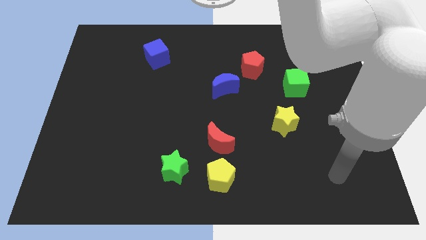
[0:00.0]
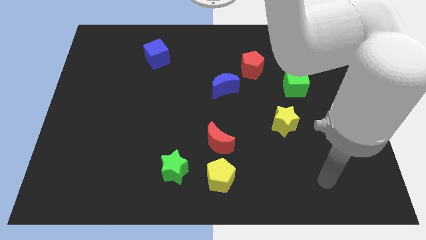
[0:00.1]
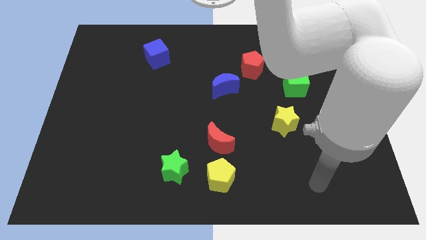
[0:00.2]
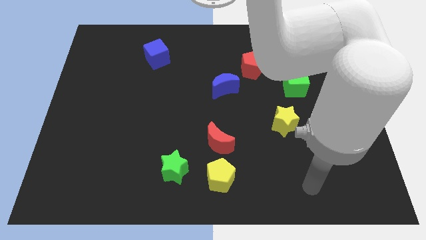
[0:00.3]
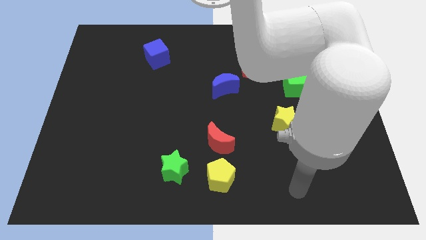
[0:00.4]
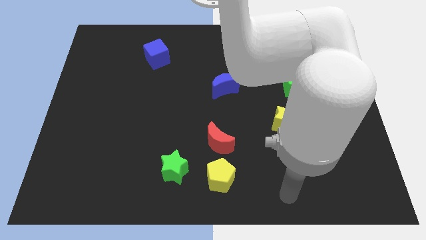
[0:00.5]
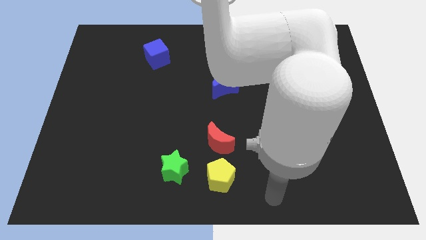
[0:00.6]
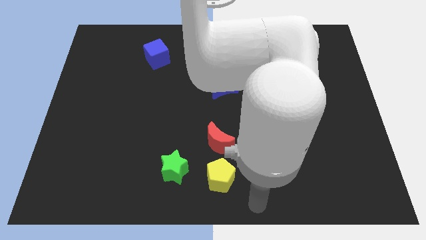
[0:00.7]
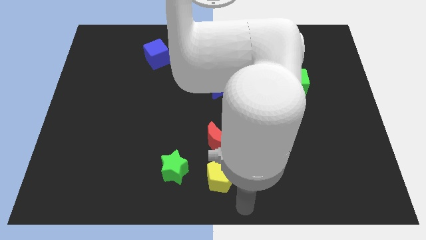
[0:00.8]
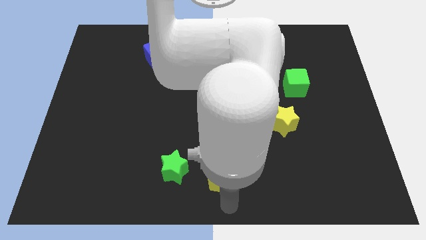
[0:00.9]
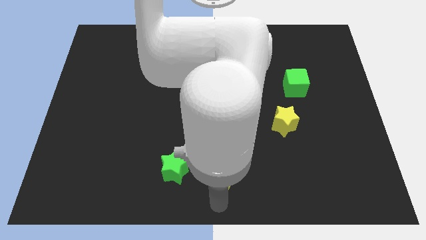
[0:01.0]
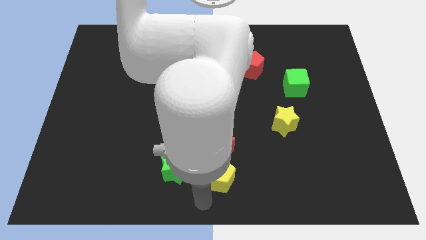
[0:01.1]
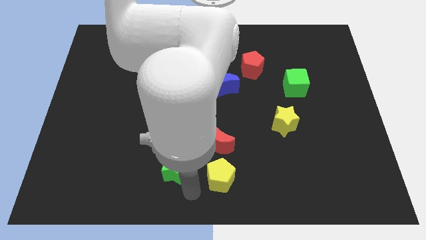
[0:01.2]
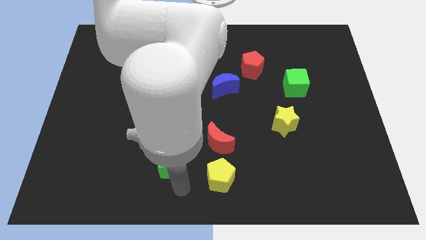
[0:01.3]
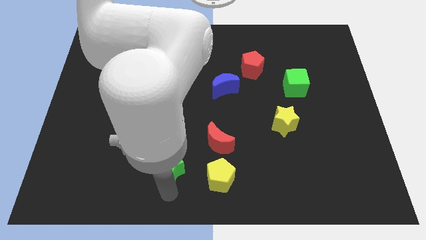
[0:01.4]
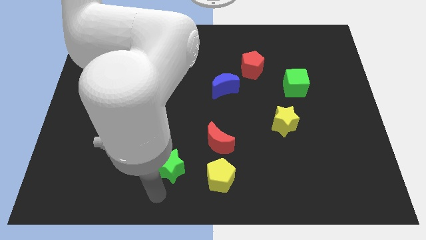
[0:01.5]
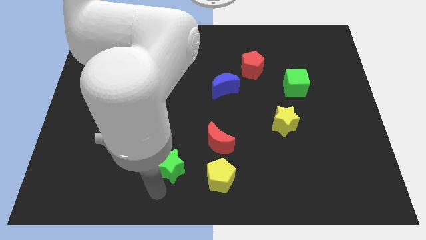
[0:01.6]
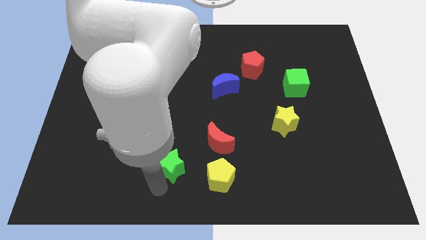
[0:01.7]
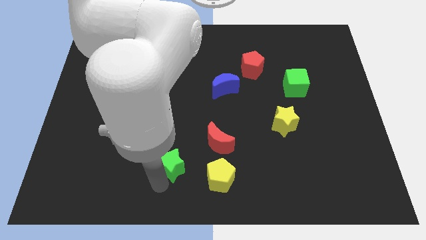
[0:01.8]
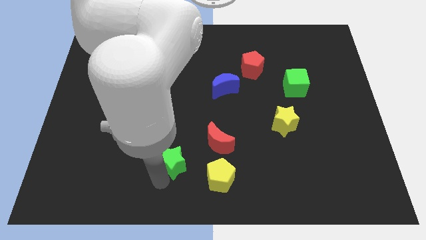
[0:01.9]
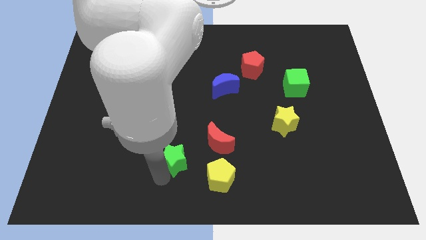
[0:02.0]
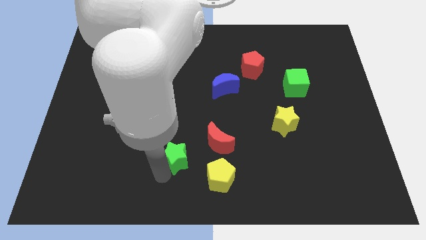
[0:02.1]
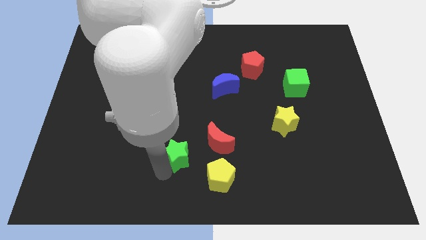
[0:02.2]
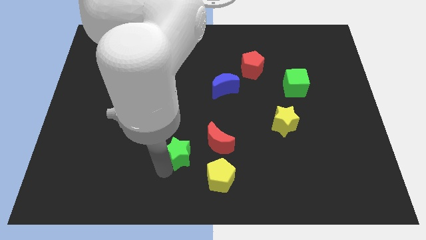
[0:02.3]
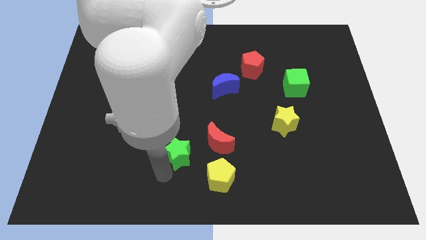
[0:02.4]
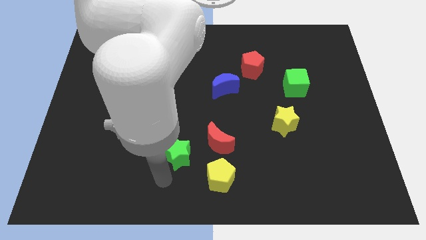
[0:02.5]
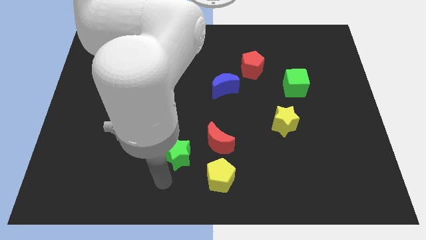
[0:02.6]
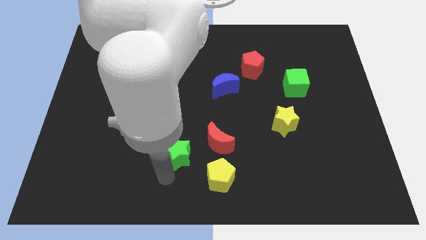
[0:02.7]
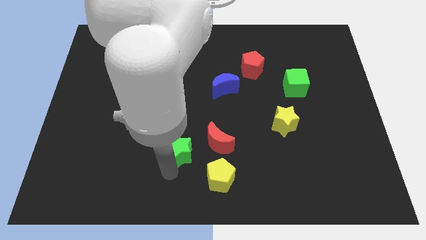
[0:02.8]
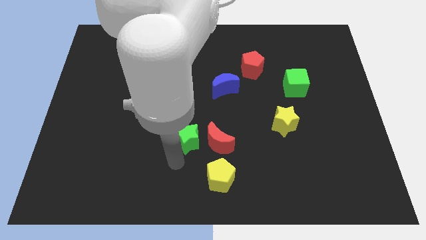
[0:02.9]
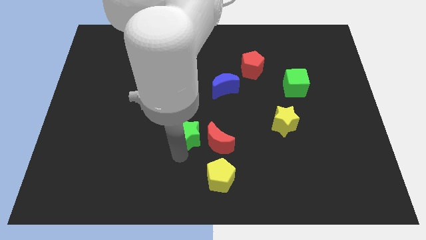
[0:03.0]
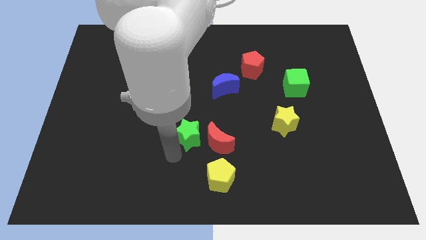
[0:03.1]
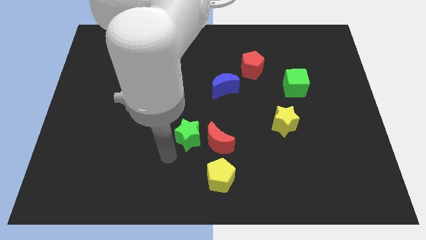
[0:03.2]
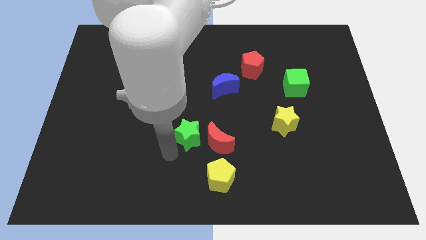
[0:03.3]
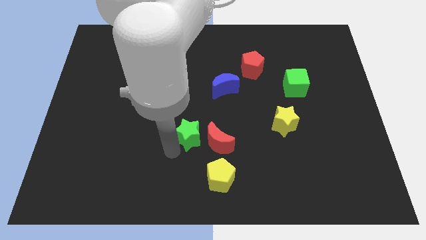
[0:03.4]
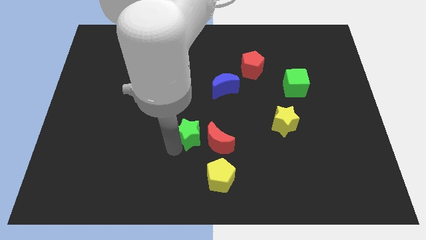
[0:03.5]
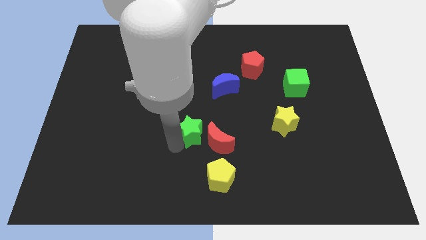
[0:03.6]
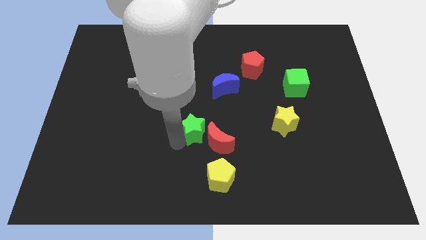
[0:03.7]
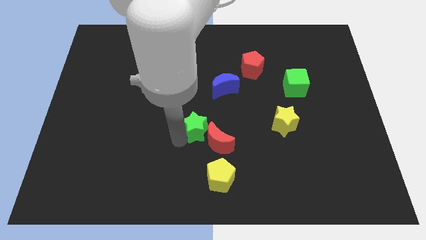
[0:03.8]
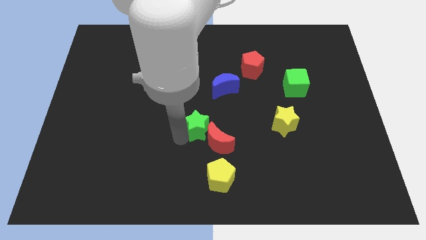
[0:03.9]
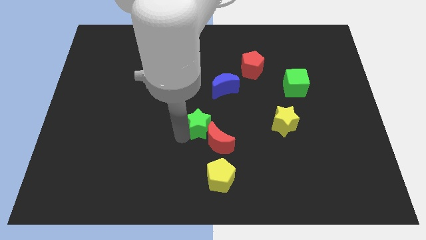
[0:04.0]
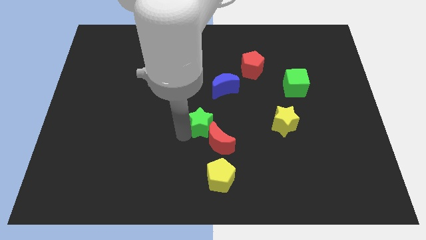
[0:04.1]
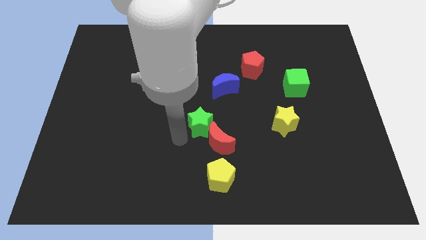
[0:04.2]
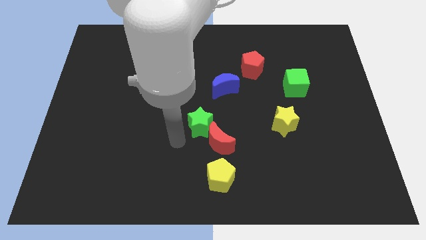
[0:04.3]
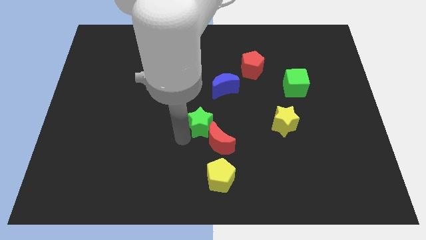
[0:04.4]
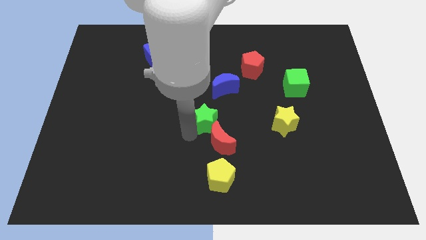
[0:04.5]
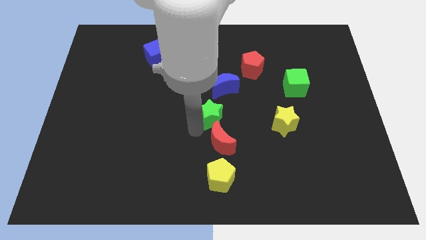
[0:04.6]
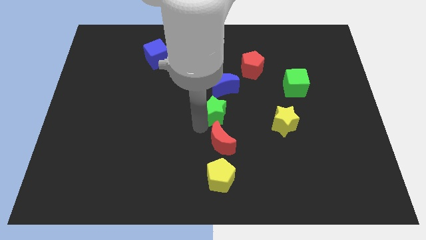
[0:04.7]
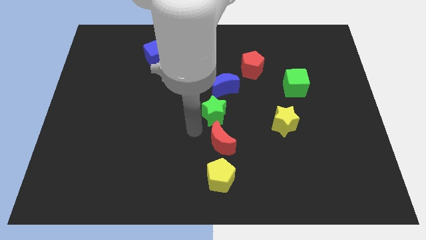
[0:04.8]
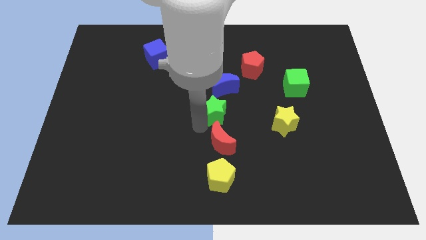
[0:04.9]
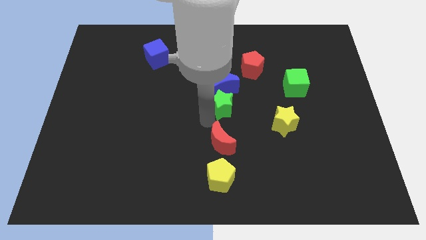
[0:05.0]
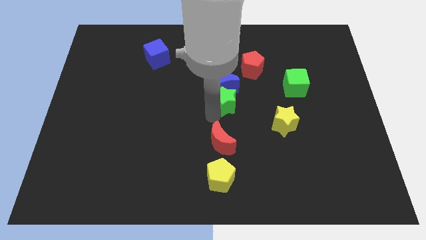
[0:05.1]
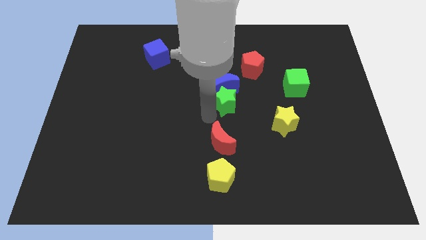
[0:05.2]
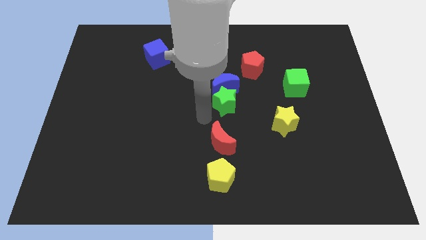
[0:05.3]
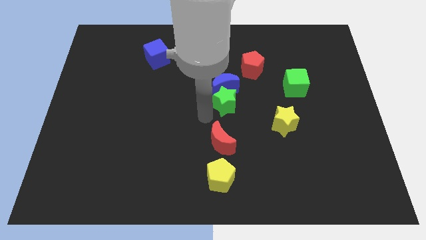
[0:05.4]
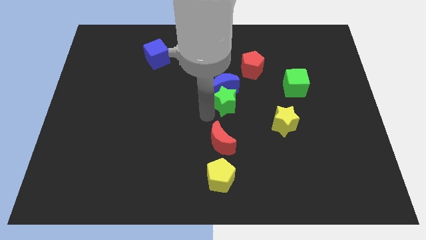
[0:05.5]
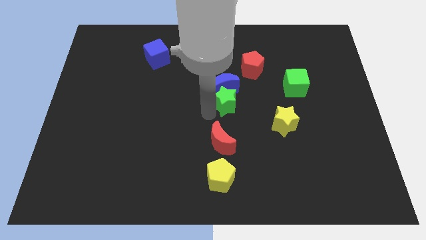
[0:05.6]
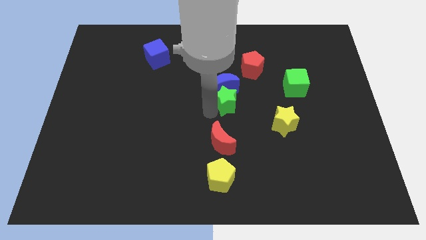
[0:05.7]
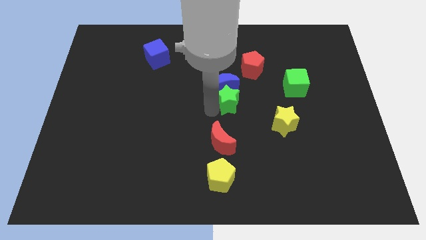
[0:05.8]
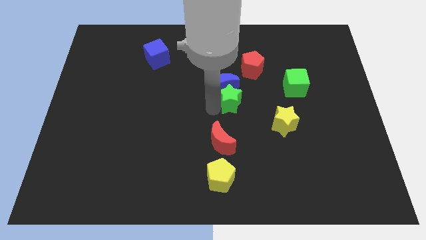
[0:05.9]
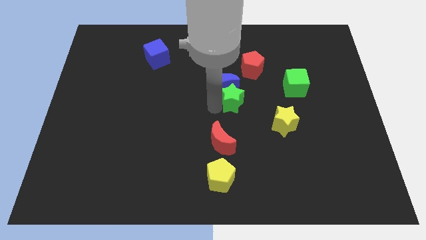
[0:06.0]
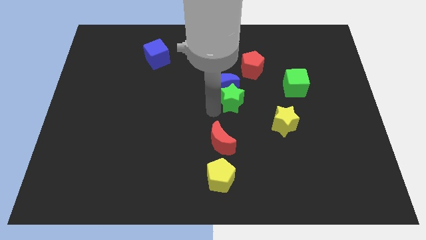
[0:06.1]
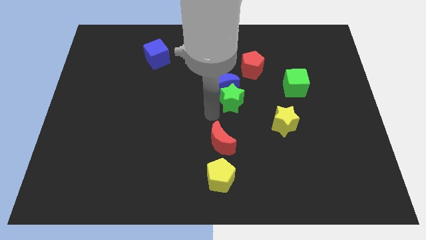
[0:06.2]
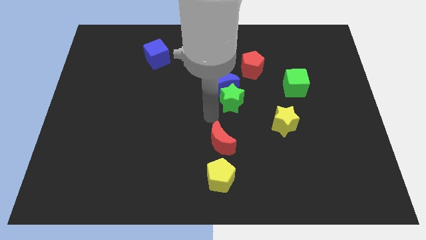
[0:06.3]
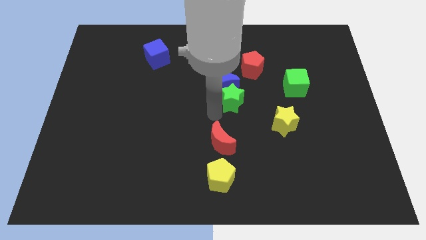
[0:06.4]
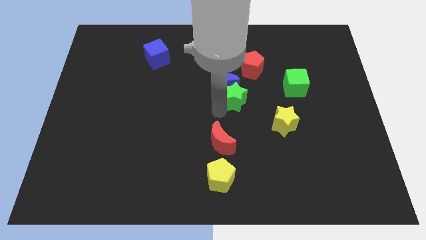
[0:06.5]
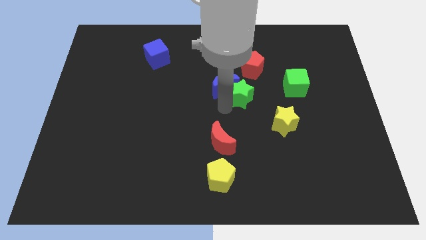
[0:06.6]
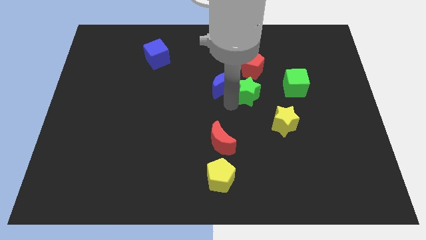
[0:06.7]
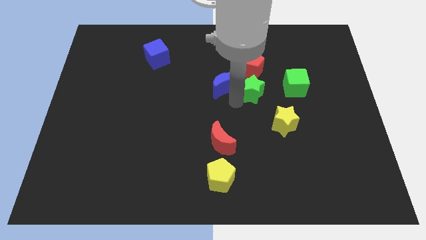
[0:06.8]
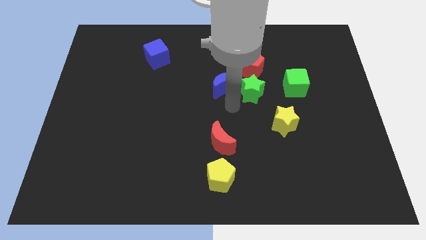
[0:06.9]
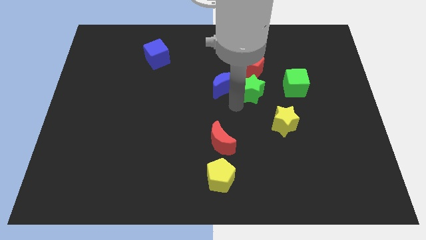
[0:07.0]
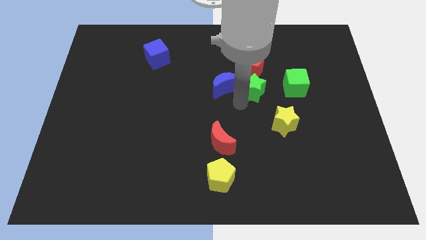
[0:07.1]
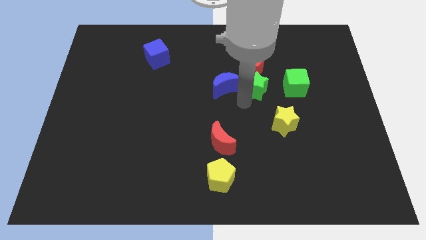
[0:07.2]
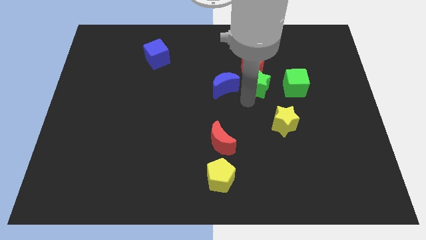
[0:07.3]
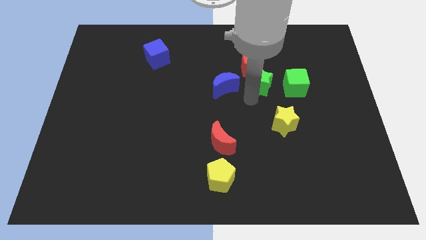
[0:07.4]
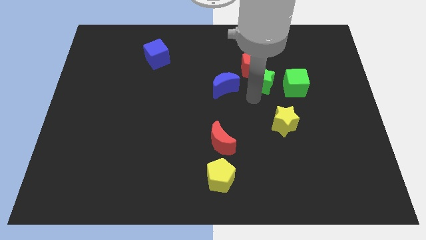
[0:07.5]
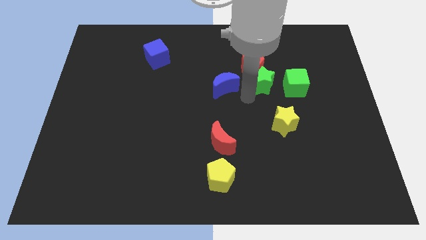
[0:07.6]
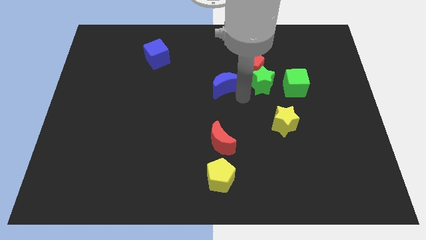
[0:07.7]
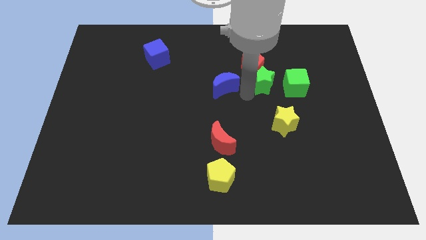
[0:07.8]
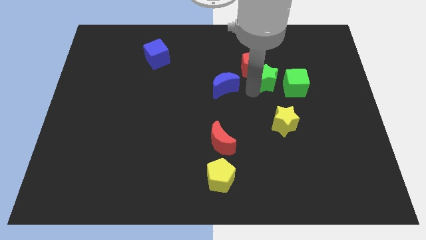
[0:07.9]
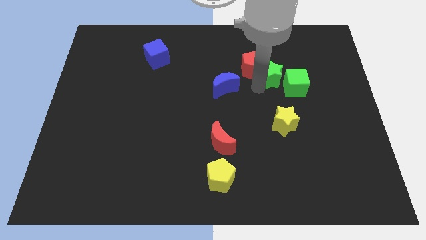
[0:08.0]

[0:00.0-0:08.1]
push the green star right of the red pentagon
